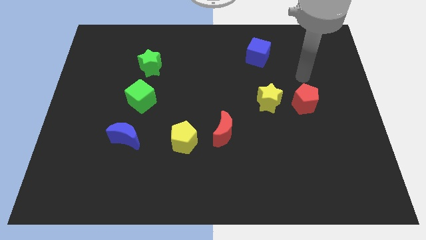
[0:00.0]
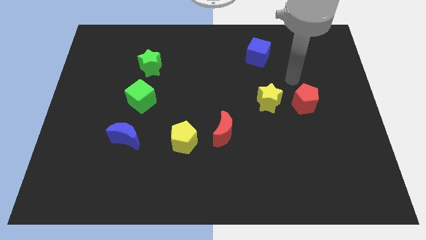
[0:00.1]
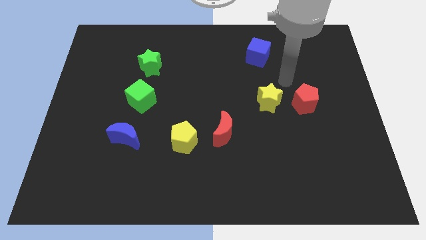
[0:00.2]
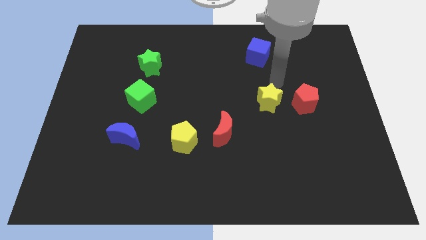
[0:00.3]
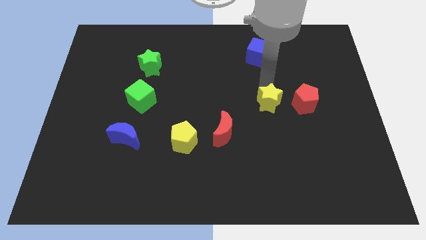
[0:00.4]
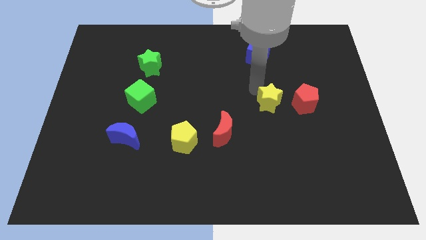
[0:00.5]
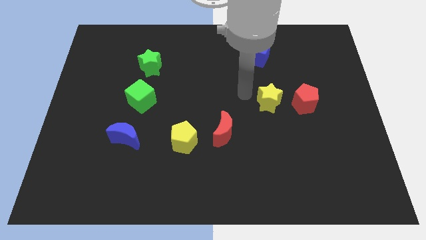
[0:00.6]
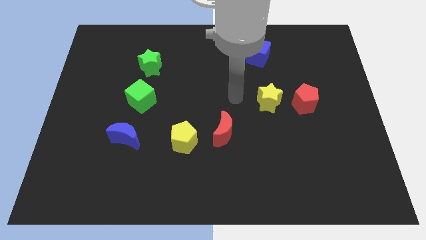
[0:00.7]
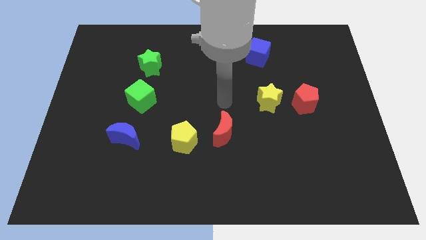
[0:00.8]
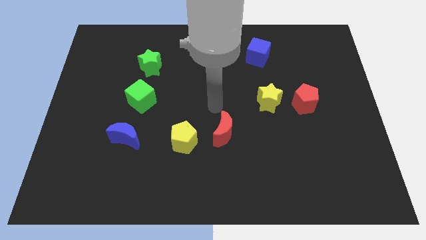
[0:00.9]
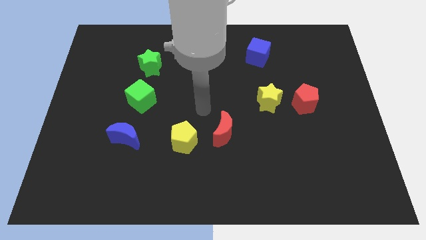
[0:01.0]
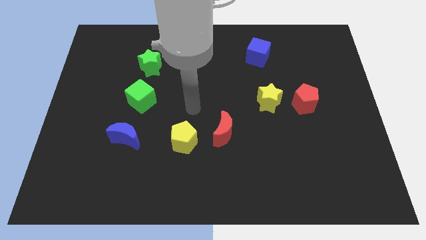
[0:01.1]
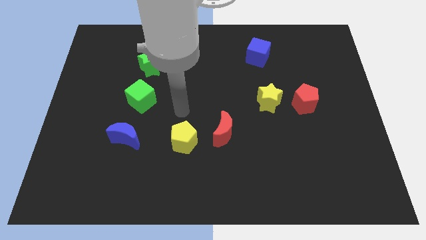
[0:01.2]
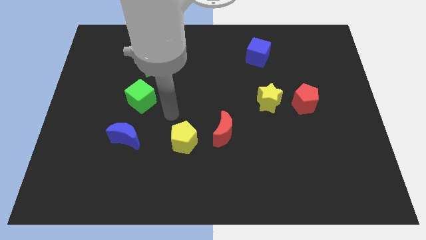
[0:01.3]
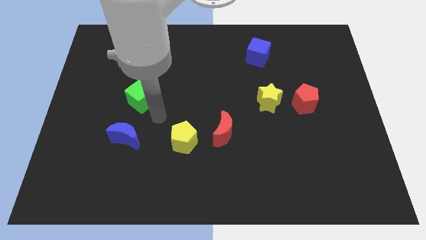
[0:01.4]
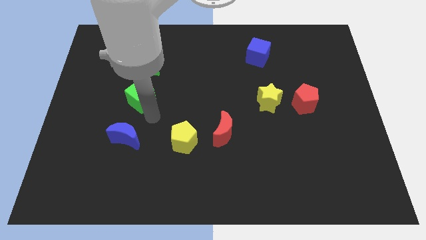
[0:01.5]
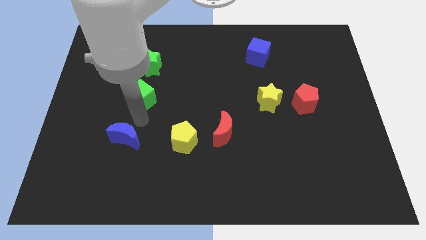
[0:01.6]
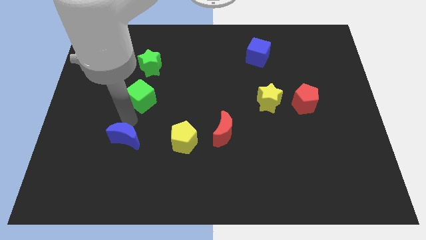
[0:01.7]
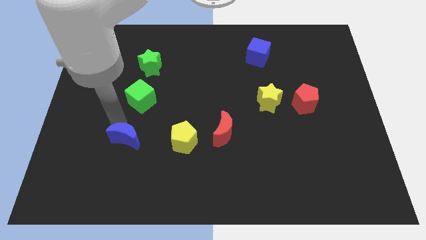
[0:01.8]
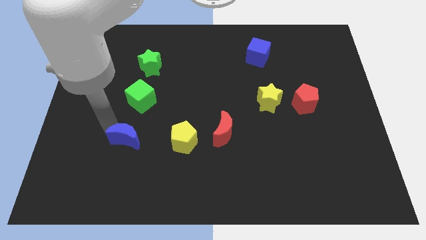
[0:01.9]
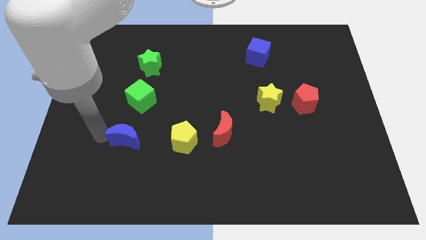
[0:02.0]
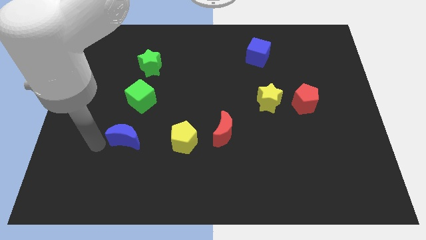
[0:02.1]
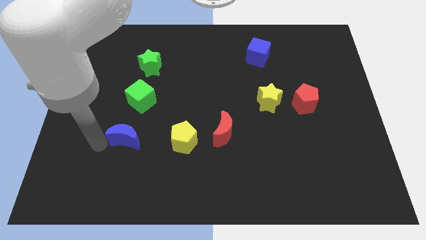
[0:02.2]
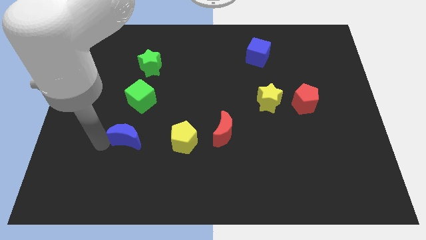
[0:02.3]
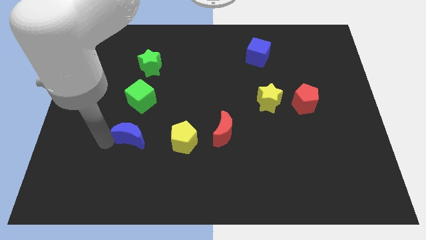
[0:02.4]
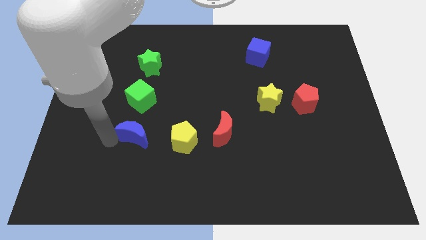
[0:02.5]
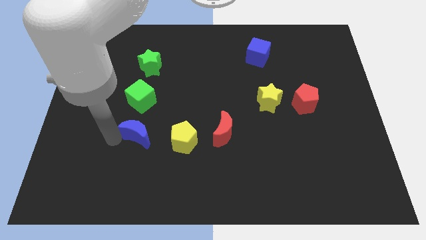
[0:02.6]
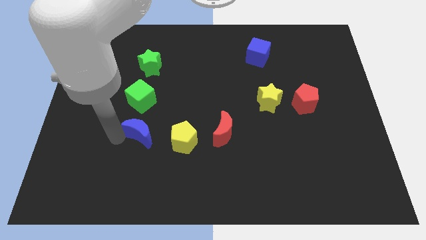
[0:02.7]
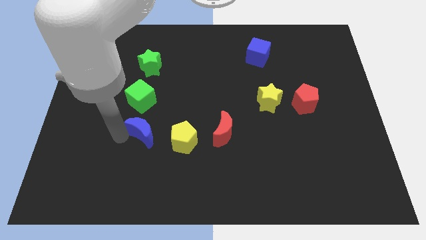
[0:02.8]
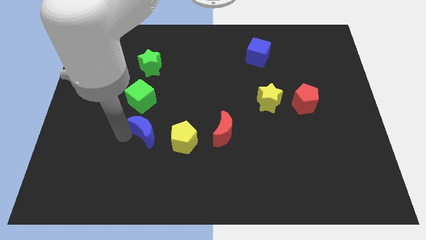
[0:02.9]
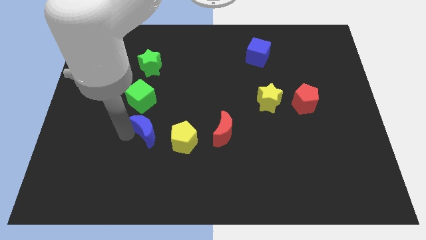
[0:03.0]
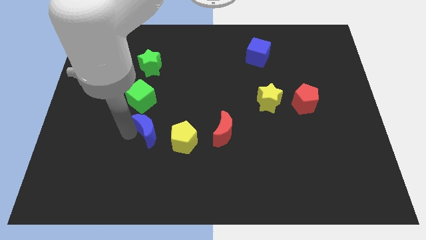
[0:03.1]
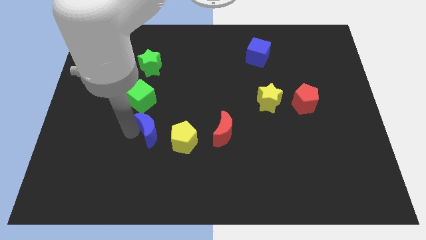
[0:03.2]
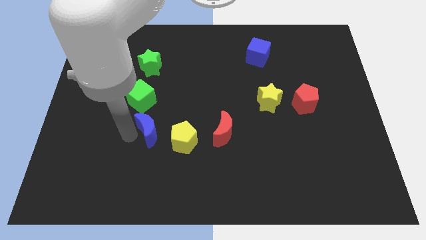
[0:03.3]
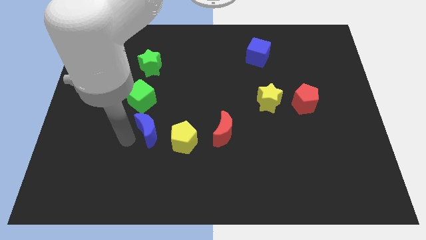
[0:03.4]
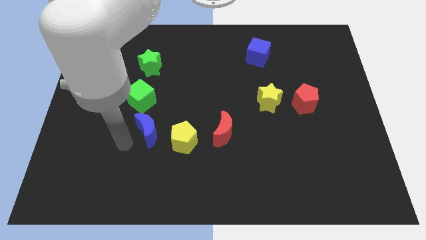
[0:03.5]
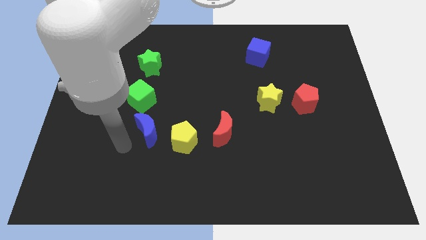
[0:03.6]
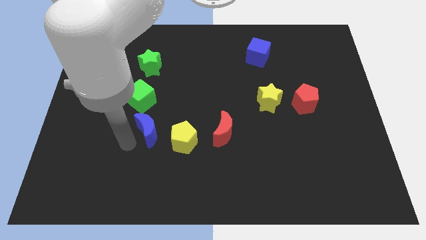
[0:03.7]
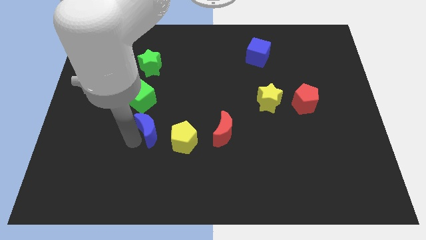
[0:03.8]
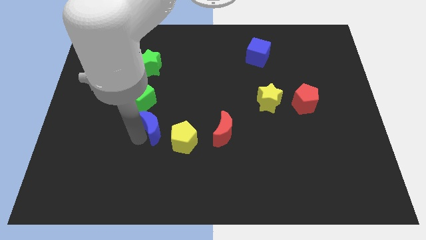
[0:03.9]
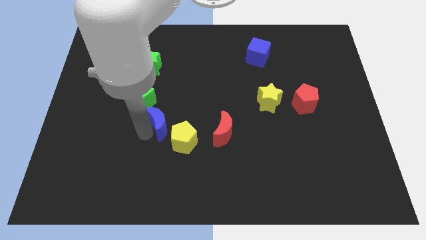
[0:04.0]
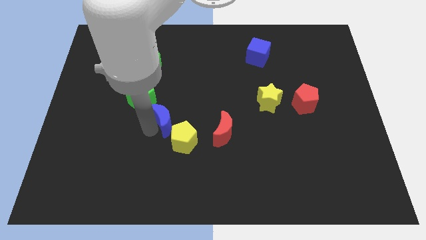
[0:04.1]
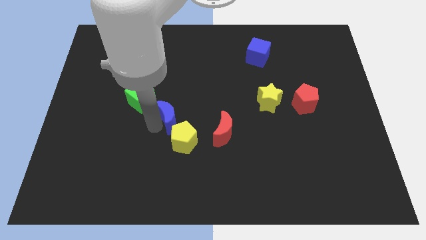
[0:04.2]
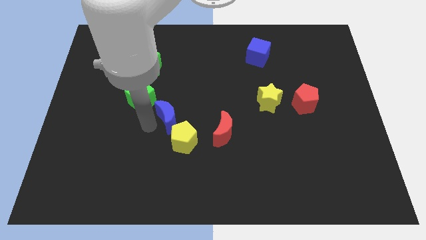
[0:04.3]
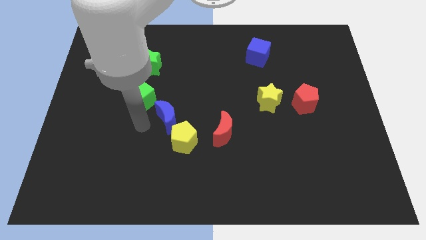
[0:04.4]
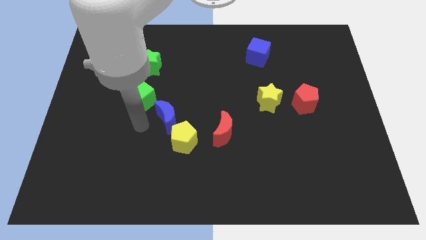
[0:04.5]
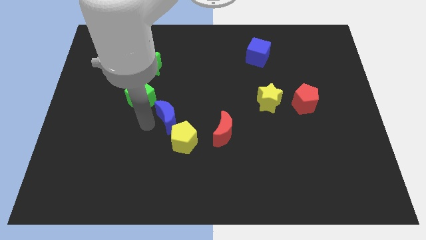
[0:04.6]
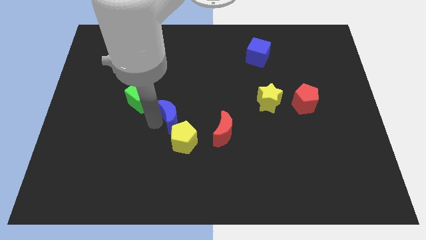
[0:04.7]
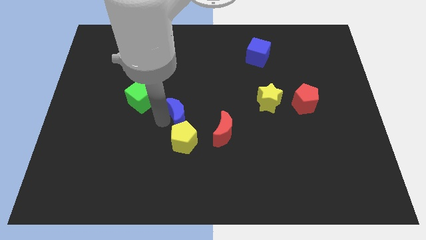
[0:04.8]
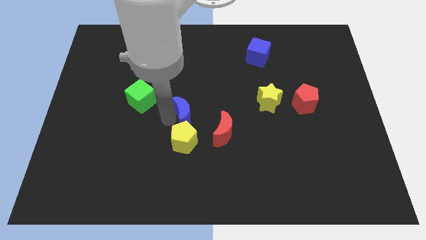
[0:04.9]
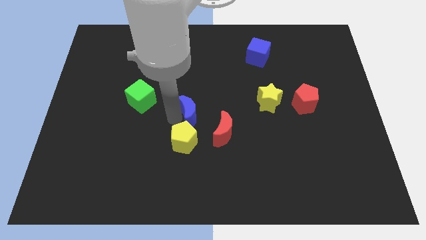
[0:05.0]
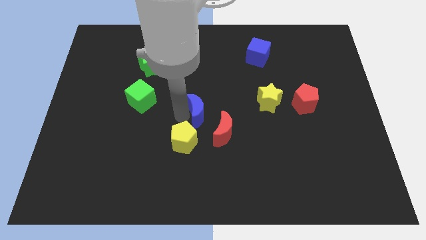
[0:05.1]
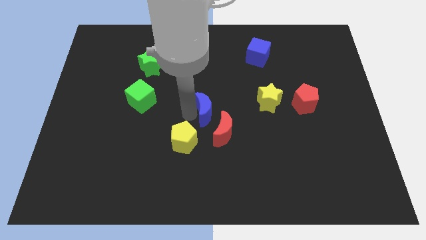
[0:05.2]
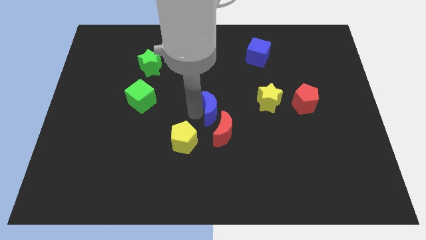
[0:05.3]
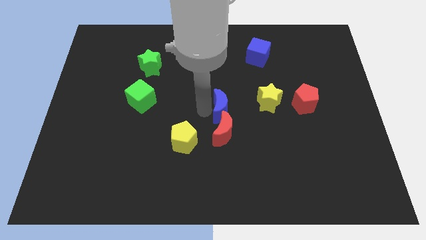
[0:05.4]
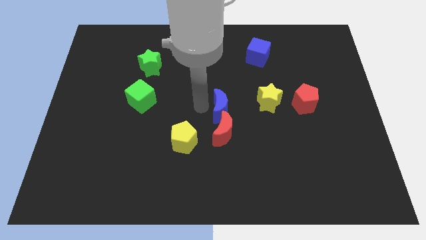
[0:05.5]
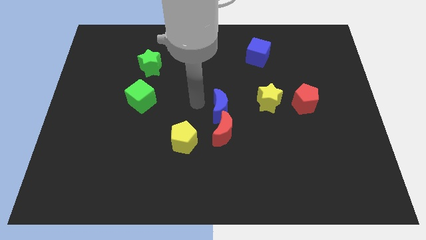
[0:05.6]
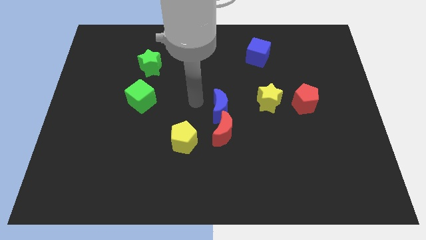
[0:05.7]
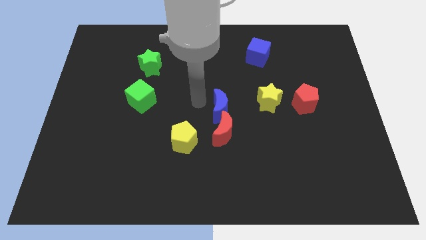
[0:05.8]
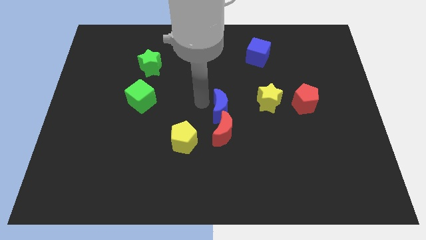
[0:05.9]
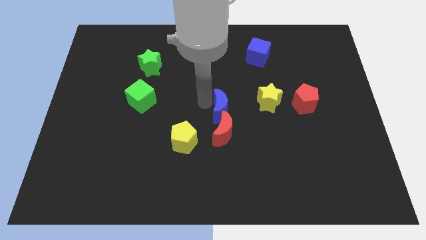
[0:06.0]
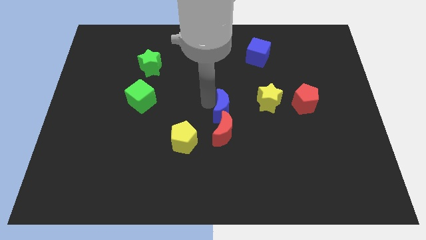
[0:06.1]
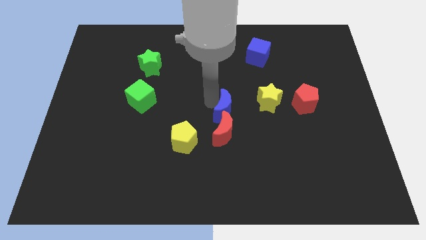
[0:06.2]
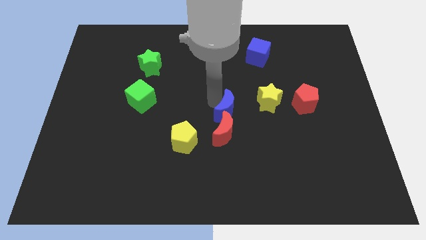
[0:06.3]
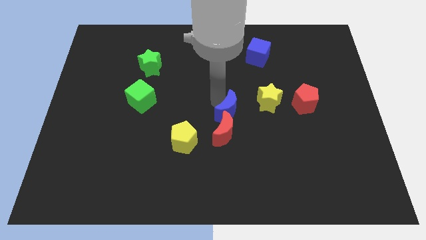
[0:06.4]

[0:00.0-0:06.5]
slide the blue moon diagonally down and to the left of the yellow star
